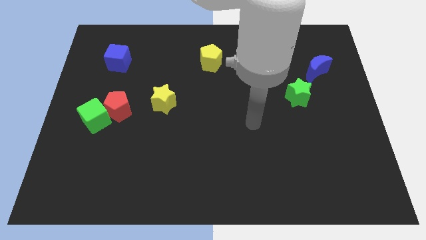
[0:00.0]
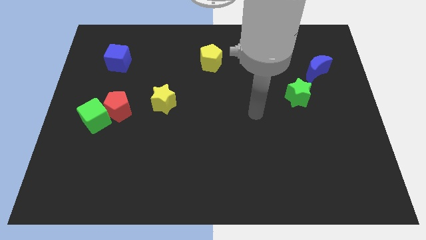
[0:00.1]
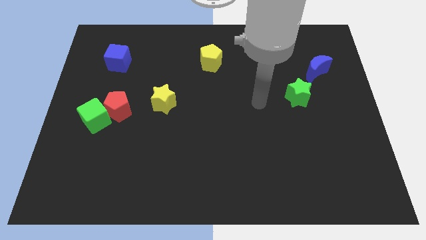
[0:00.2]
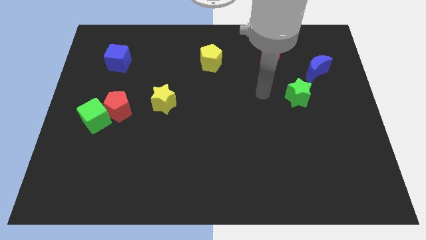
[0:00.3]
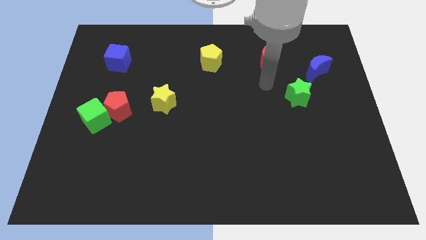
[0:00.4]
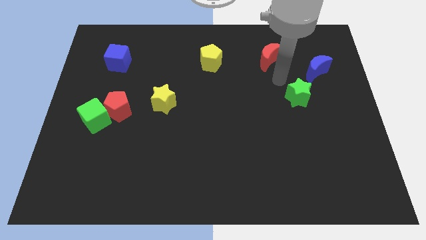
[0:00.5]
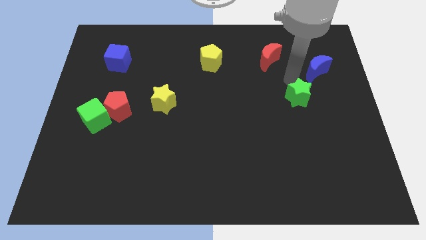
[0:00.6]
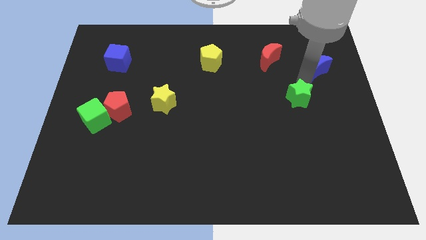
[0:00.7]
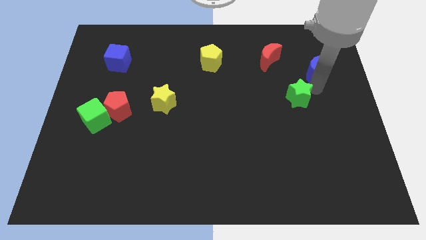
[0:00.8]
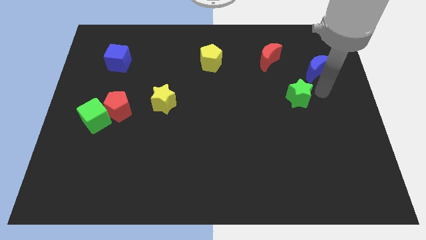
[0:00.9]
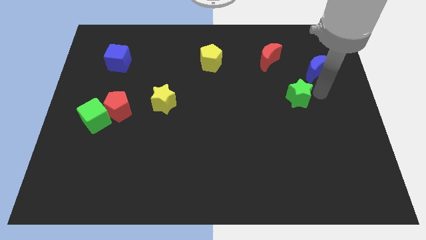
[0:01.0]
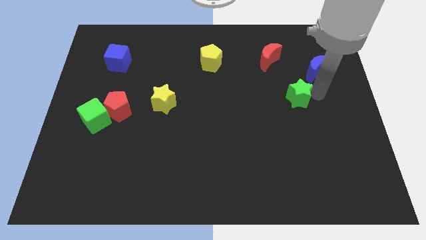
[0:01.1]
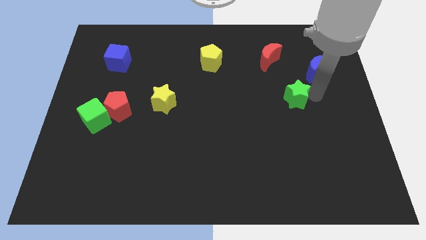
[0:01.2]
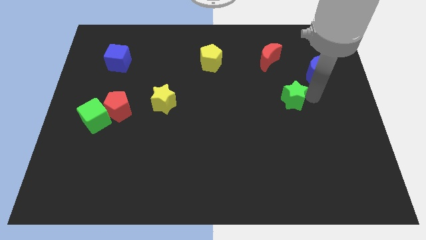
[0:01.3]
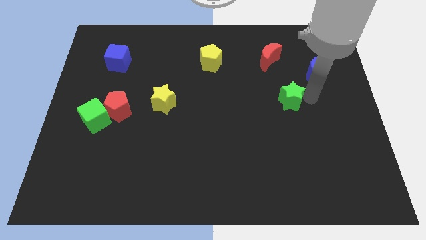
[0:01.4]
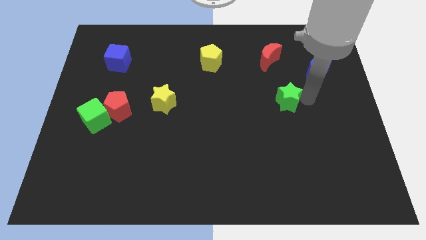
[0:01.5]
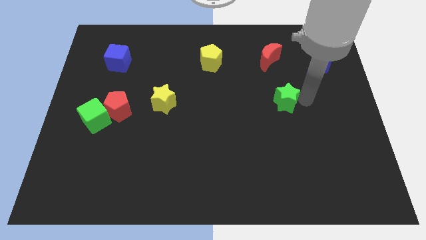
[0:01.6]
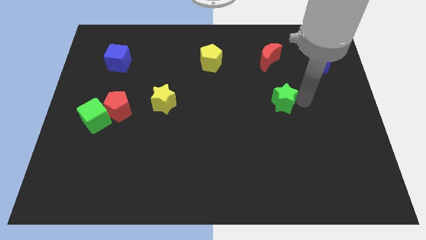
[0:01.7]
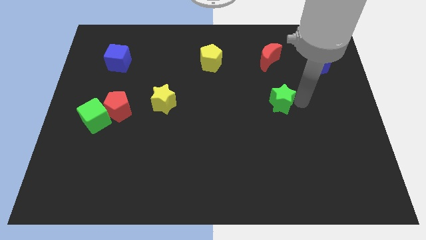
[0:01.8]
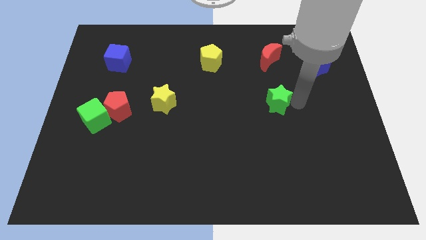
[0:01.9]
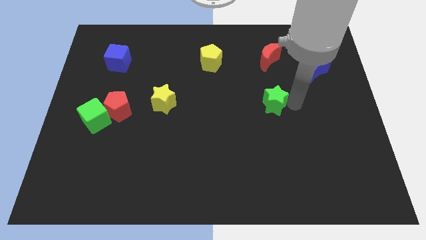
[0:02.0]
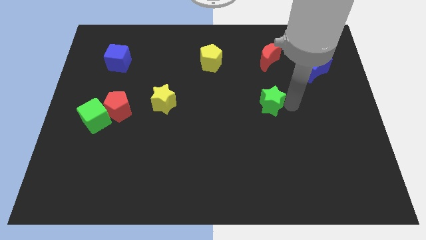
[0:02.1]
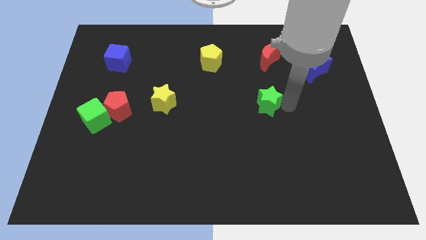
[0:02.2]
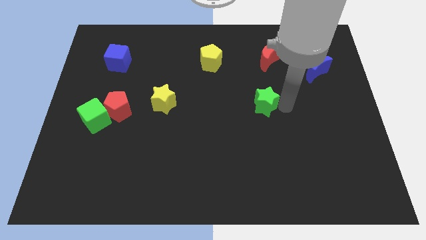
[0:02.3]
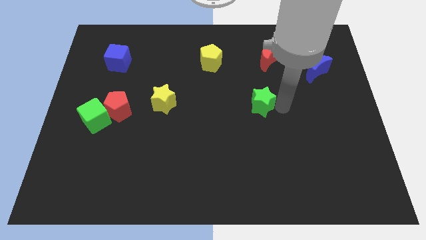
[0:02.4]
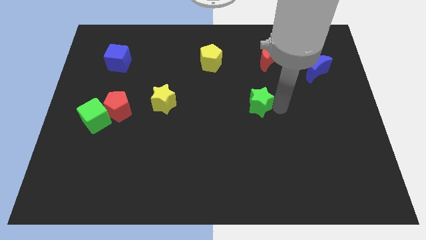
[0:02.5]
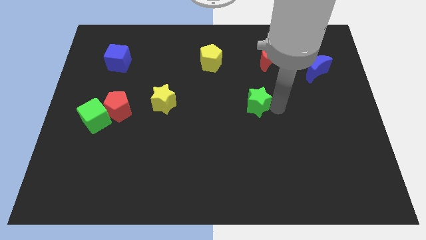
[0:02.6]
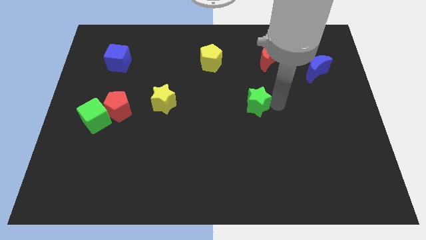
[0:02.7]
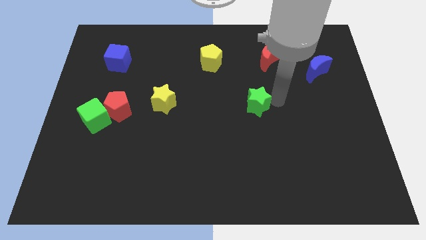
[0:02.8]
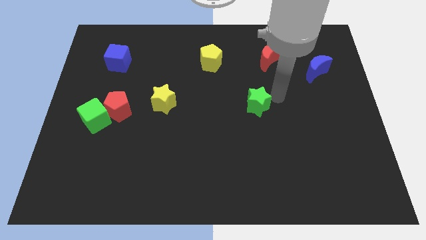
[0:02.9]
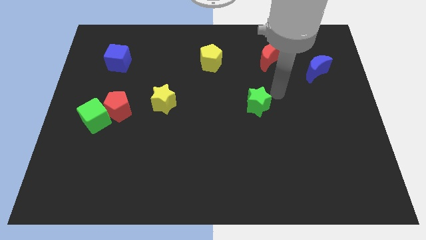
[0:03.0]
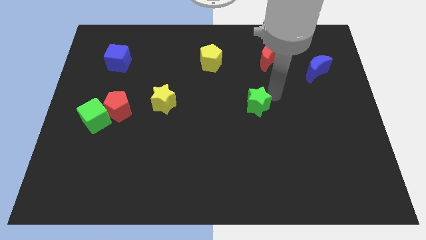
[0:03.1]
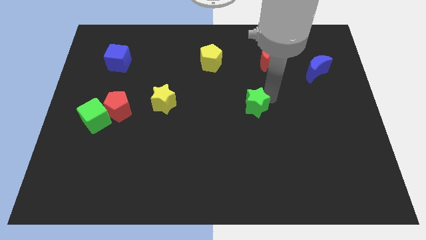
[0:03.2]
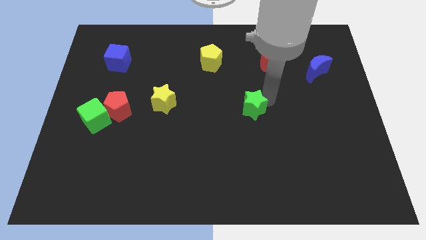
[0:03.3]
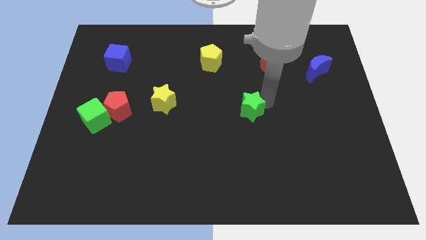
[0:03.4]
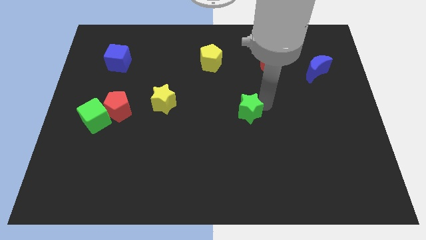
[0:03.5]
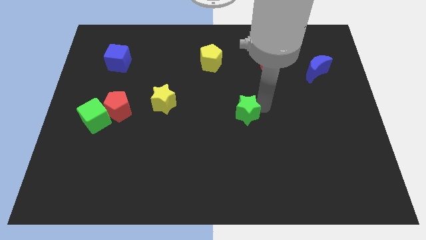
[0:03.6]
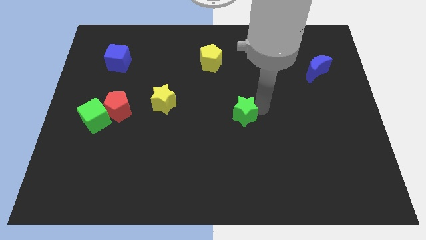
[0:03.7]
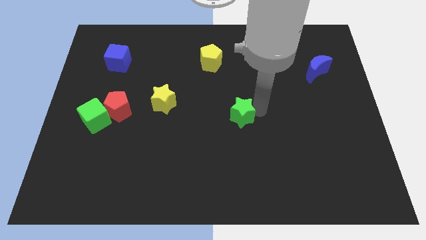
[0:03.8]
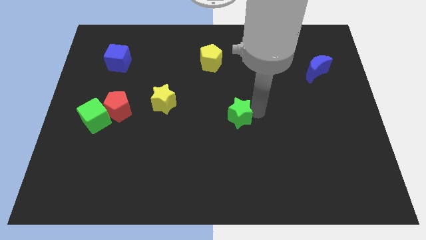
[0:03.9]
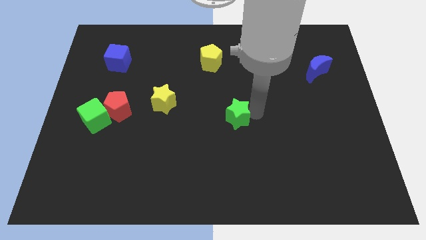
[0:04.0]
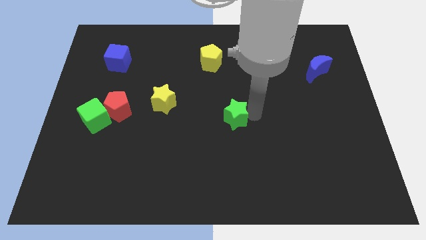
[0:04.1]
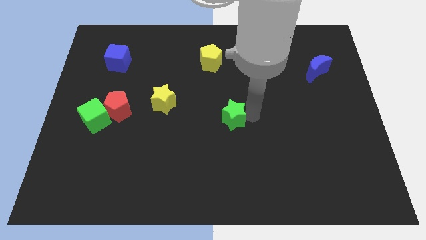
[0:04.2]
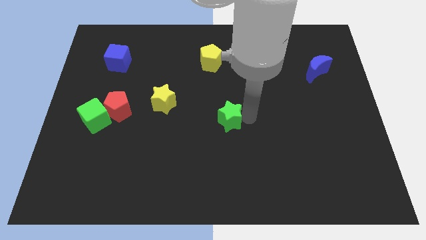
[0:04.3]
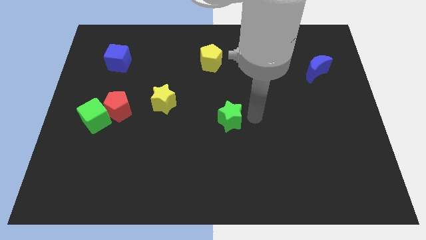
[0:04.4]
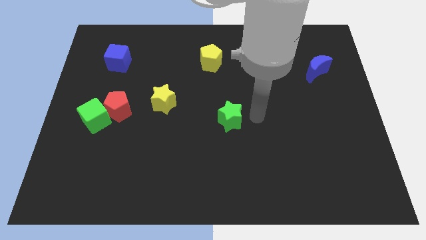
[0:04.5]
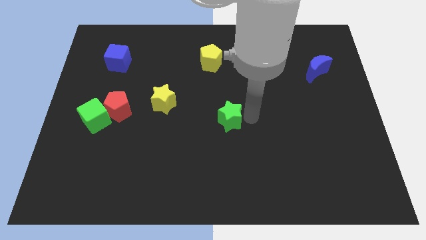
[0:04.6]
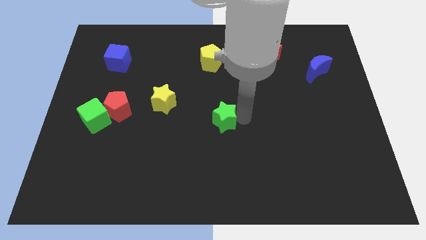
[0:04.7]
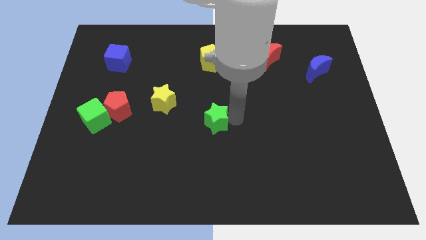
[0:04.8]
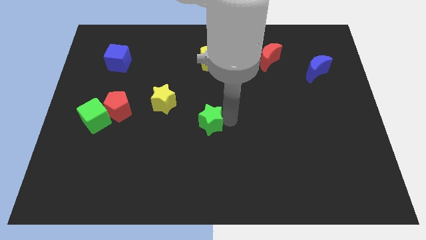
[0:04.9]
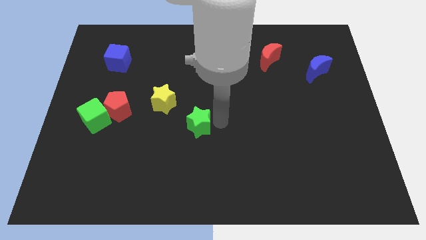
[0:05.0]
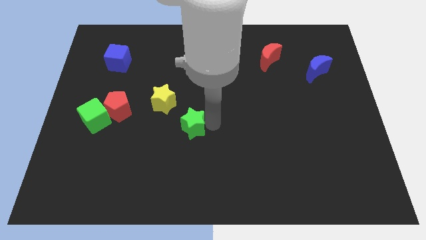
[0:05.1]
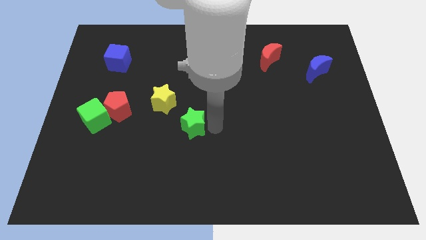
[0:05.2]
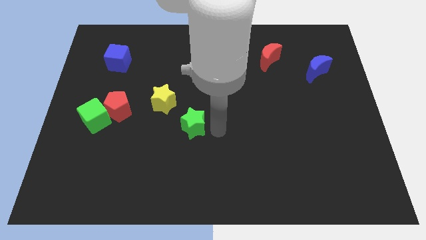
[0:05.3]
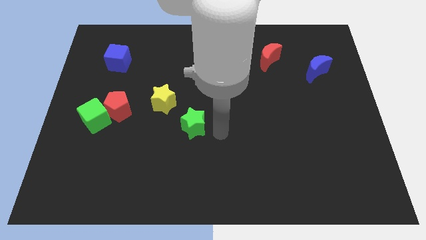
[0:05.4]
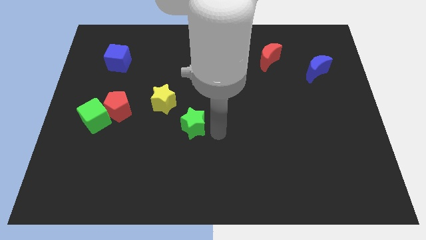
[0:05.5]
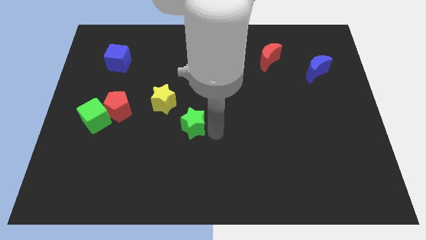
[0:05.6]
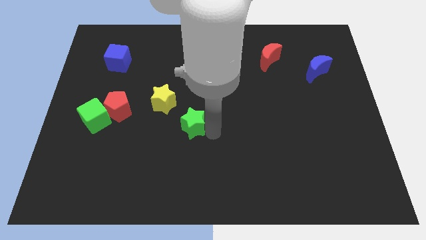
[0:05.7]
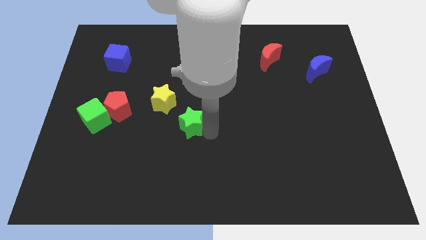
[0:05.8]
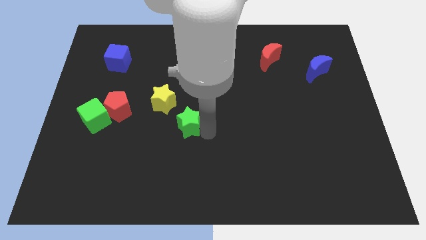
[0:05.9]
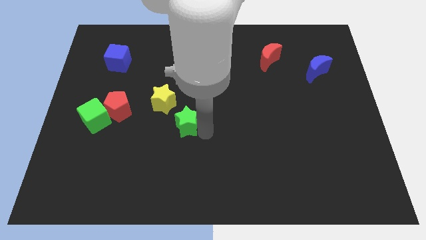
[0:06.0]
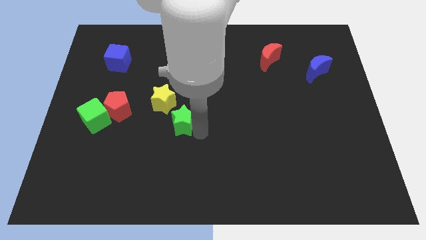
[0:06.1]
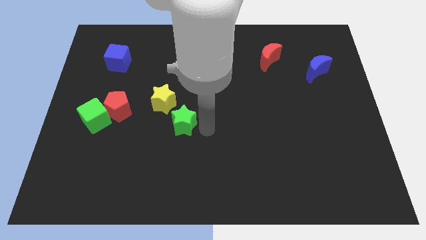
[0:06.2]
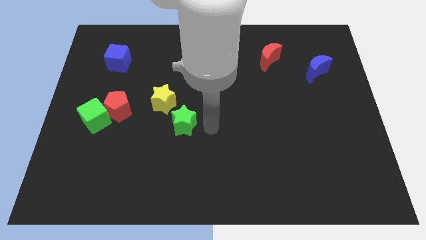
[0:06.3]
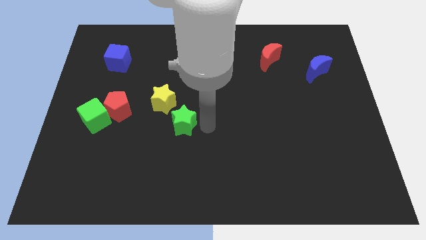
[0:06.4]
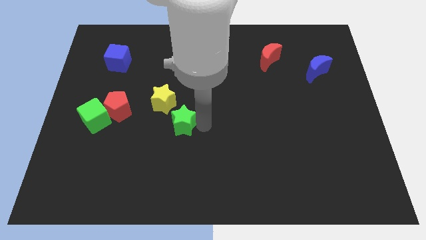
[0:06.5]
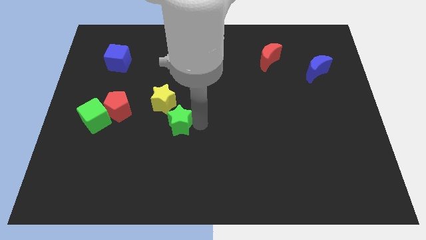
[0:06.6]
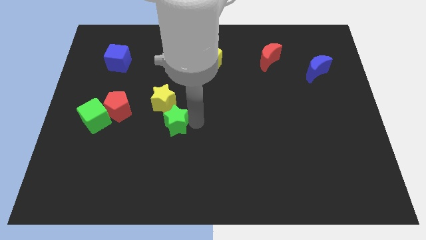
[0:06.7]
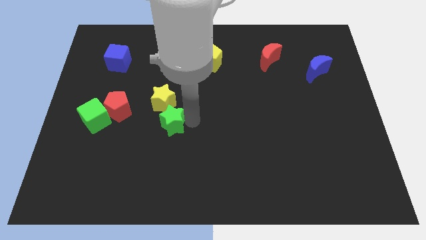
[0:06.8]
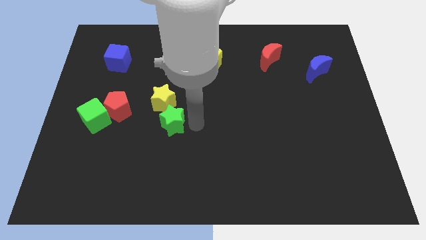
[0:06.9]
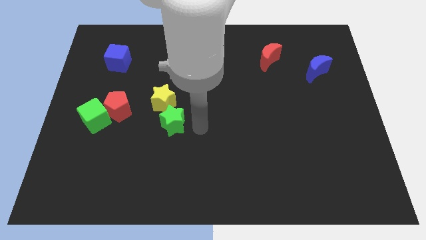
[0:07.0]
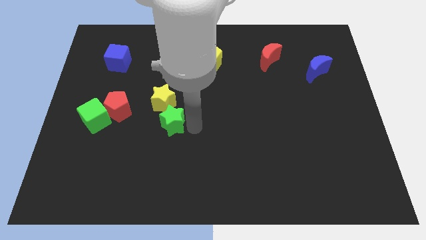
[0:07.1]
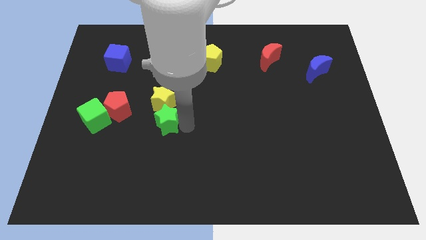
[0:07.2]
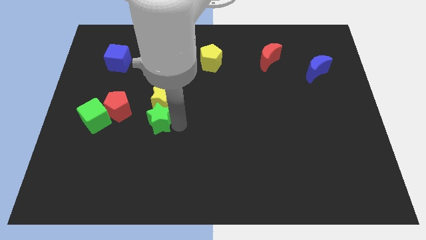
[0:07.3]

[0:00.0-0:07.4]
slide the green star just right of the green cube

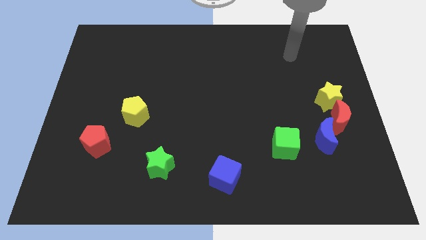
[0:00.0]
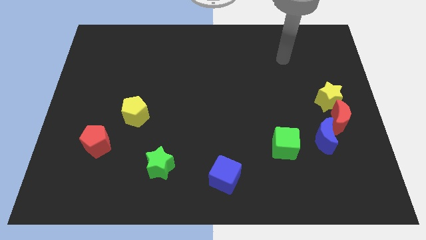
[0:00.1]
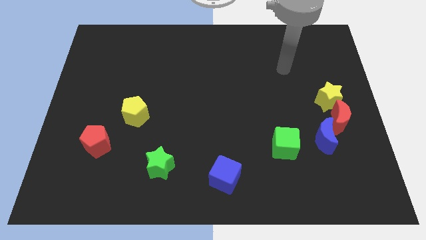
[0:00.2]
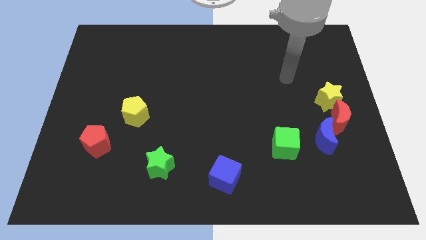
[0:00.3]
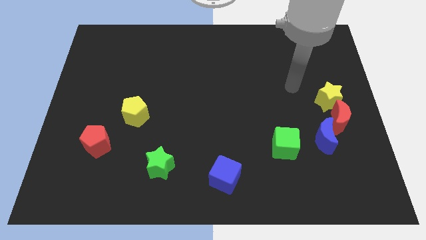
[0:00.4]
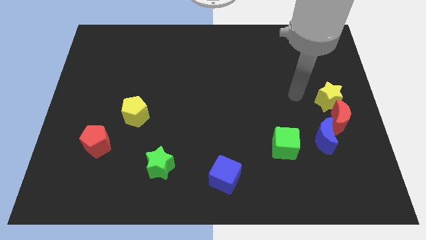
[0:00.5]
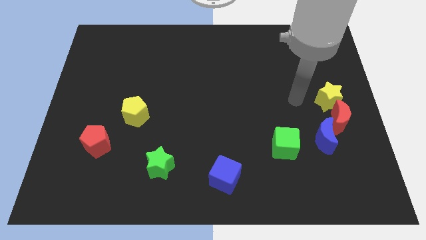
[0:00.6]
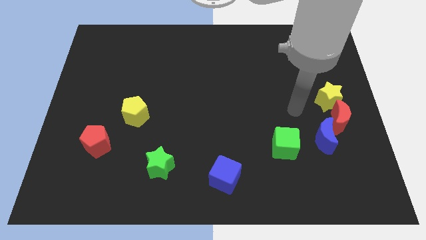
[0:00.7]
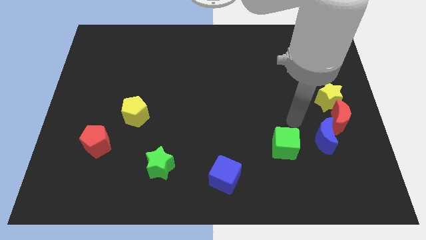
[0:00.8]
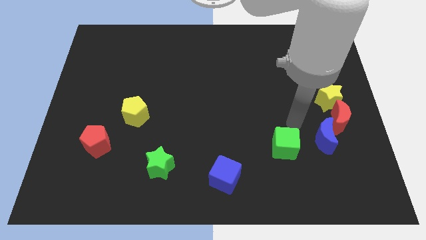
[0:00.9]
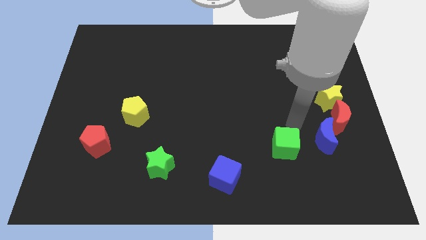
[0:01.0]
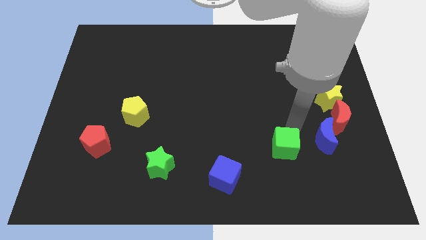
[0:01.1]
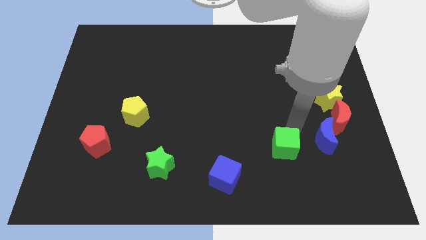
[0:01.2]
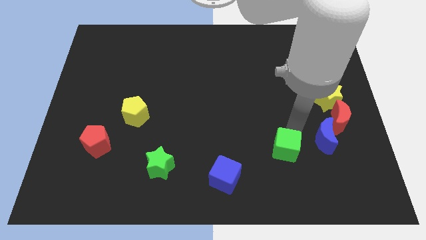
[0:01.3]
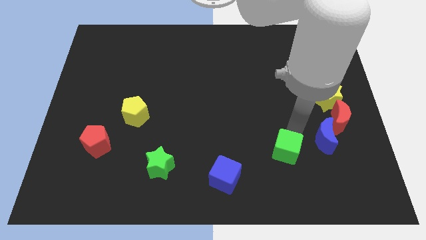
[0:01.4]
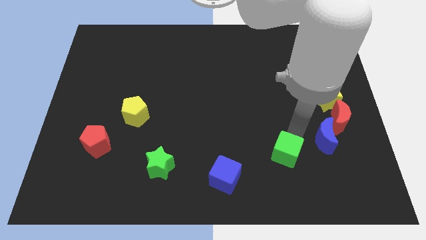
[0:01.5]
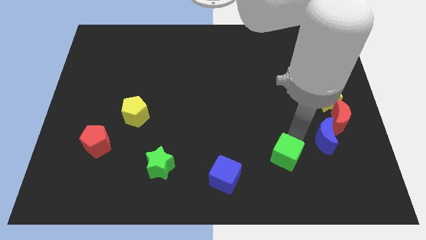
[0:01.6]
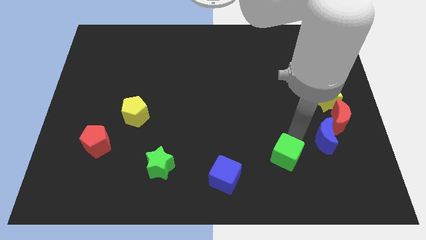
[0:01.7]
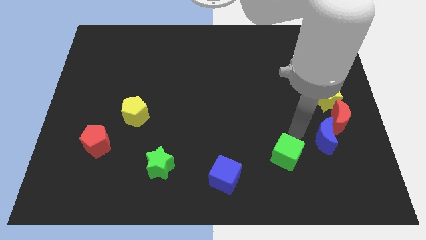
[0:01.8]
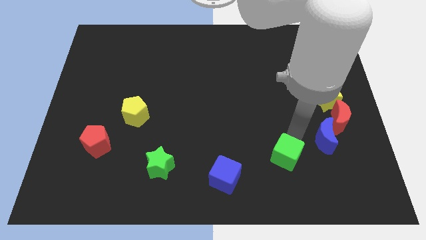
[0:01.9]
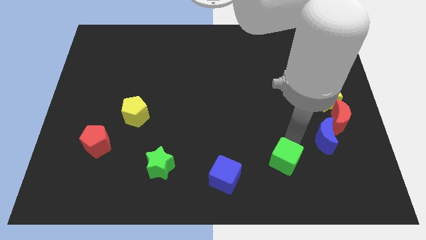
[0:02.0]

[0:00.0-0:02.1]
move the green cube right of the blue cube
